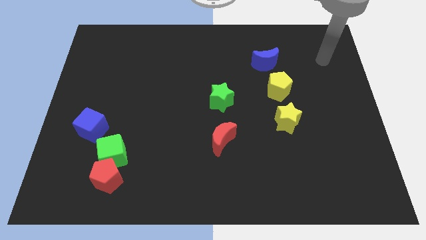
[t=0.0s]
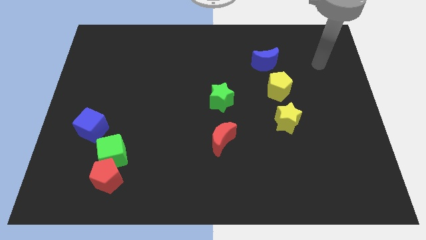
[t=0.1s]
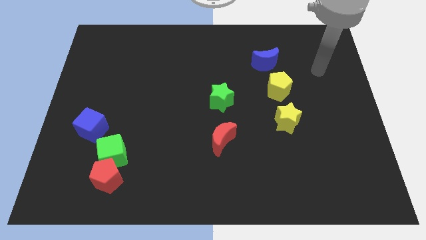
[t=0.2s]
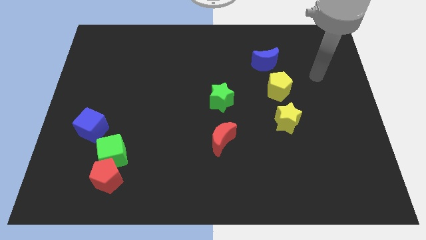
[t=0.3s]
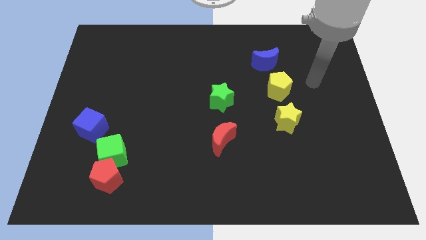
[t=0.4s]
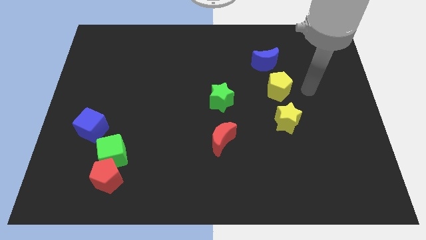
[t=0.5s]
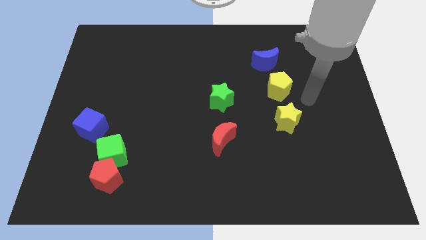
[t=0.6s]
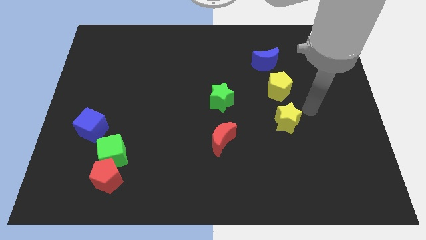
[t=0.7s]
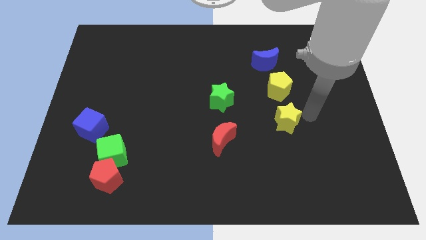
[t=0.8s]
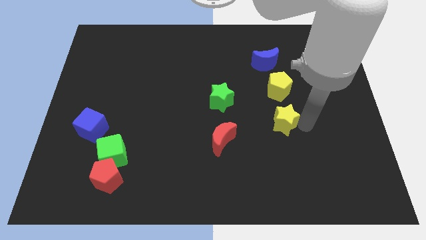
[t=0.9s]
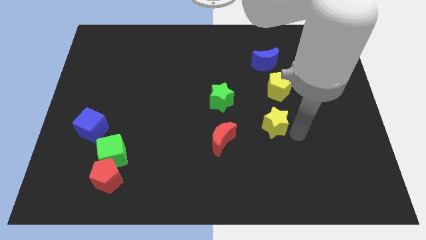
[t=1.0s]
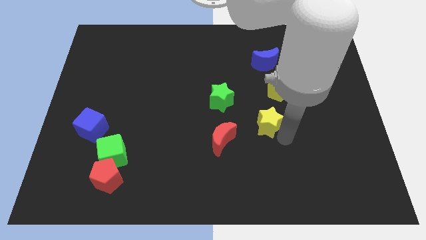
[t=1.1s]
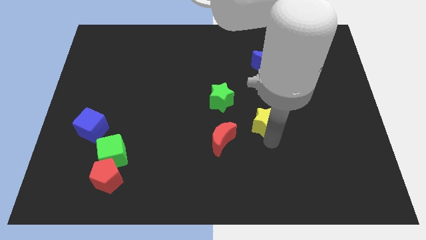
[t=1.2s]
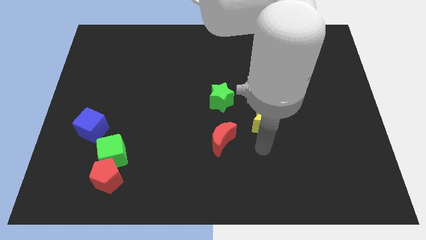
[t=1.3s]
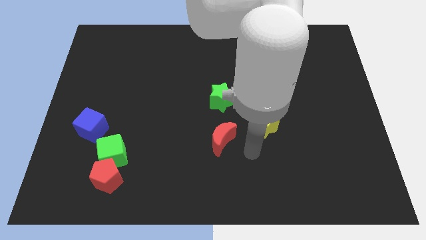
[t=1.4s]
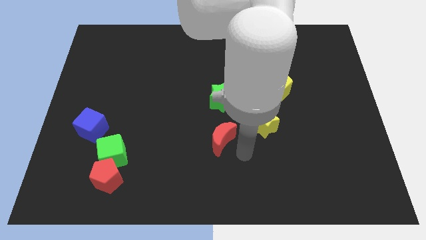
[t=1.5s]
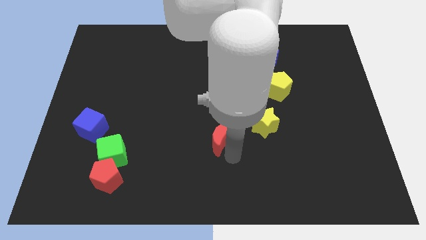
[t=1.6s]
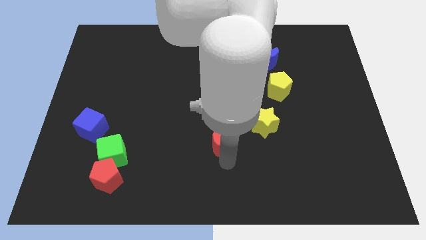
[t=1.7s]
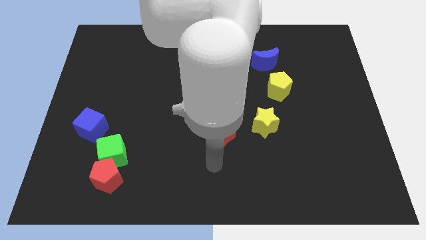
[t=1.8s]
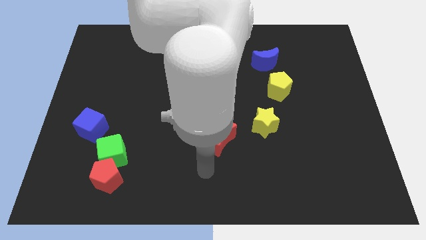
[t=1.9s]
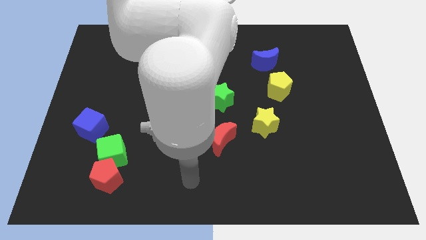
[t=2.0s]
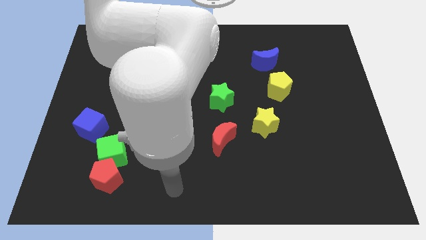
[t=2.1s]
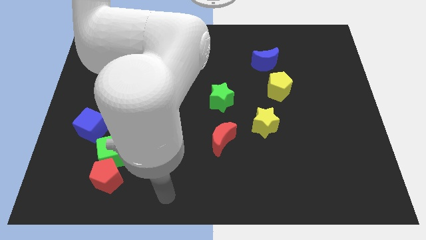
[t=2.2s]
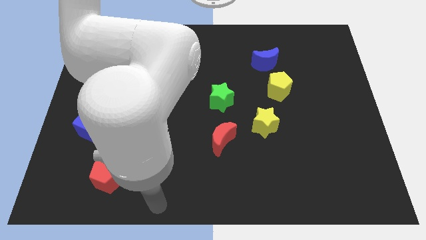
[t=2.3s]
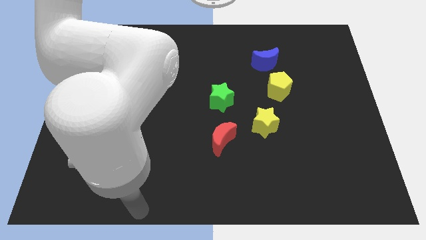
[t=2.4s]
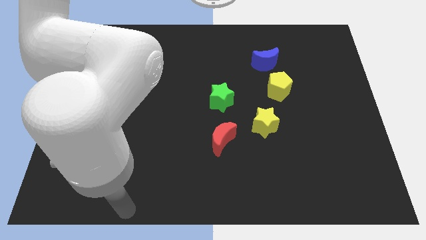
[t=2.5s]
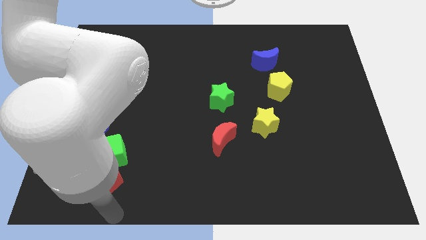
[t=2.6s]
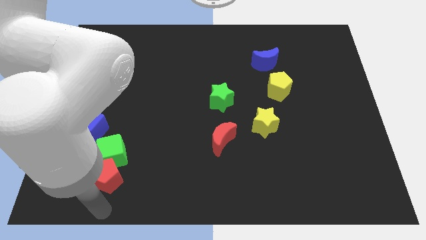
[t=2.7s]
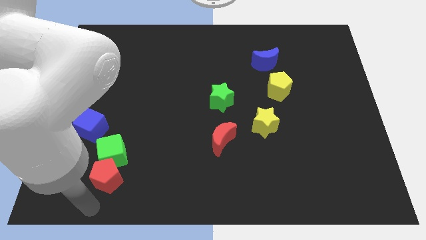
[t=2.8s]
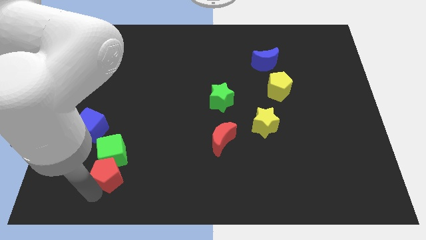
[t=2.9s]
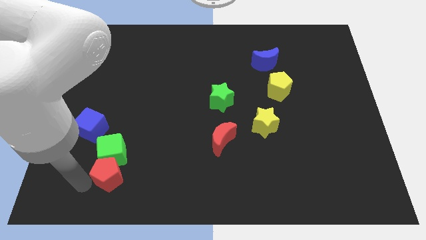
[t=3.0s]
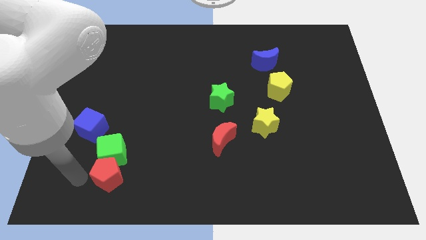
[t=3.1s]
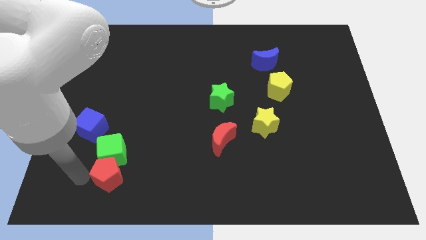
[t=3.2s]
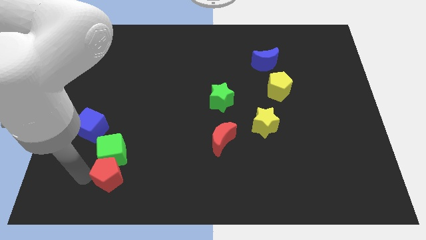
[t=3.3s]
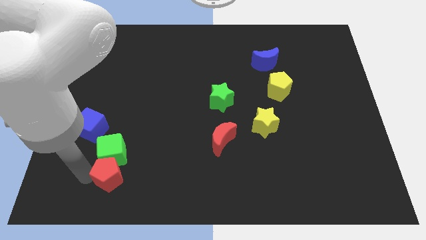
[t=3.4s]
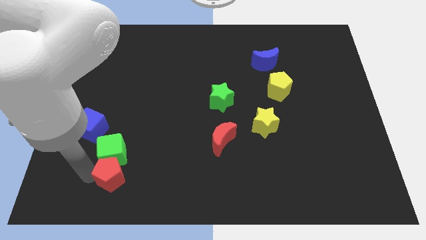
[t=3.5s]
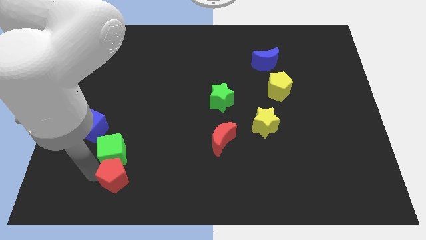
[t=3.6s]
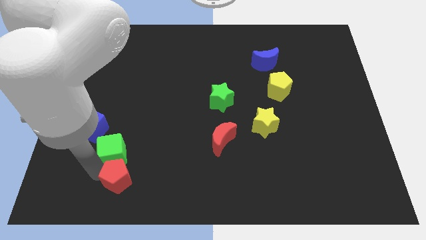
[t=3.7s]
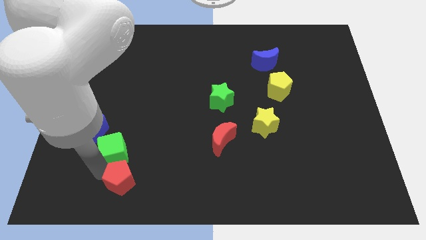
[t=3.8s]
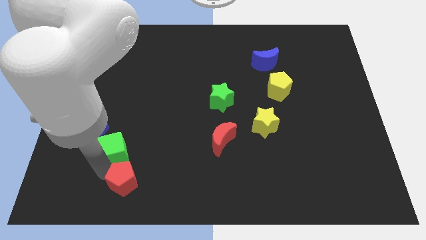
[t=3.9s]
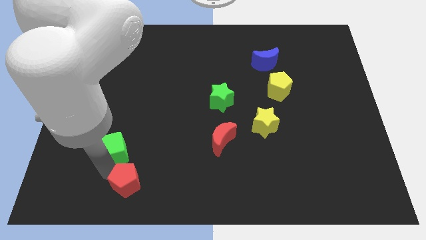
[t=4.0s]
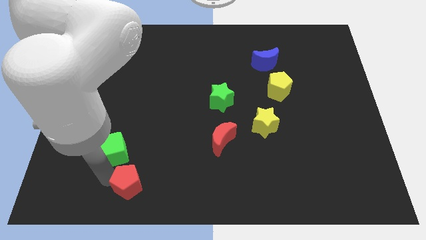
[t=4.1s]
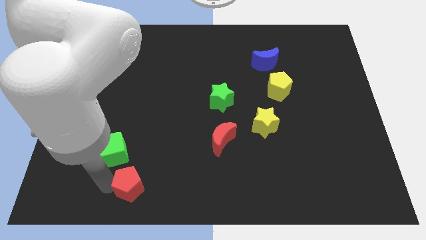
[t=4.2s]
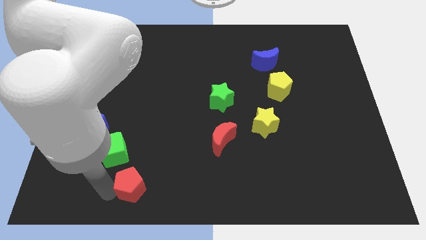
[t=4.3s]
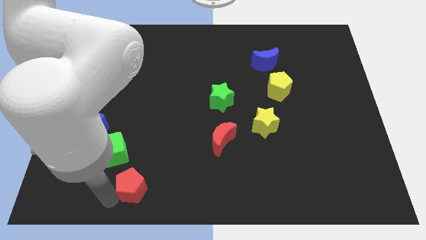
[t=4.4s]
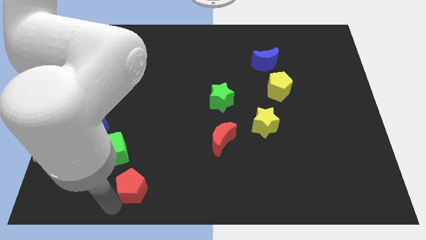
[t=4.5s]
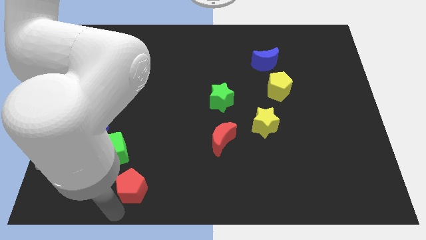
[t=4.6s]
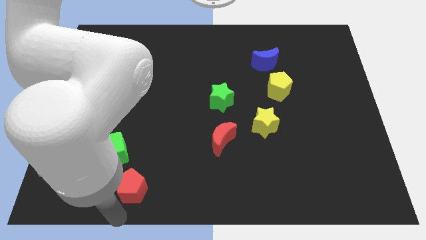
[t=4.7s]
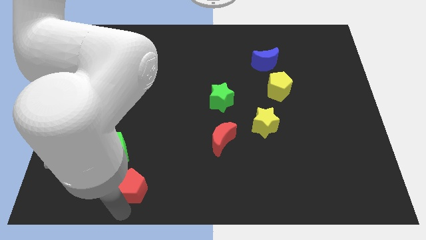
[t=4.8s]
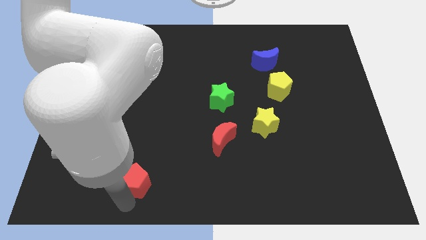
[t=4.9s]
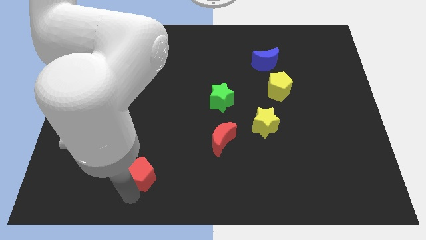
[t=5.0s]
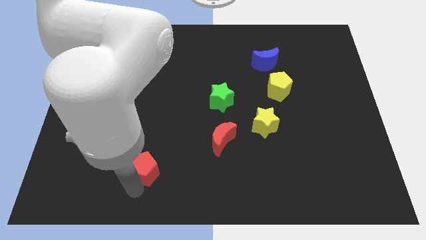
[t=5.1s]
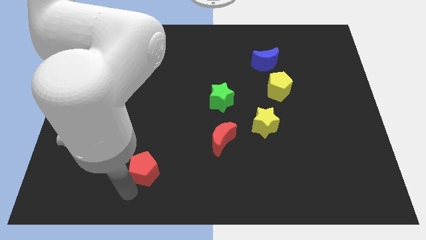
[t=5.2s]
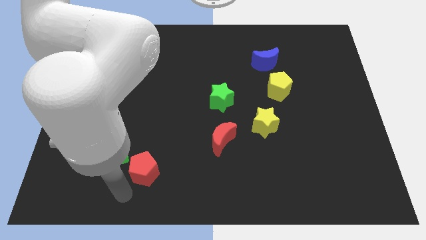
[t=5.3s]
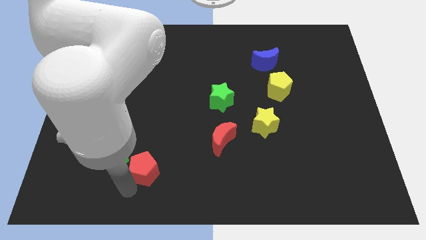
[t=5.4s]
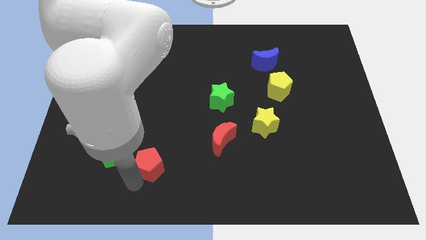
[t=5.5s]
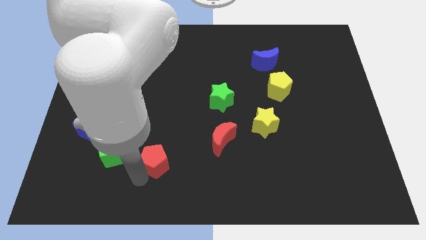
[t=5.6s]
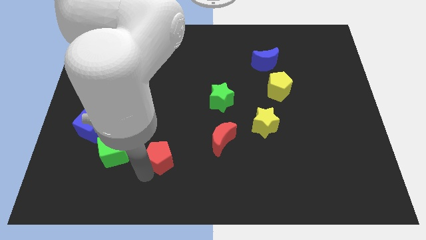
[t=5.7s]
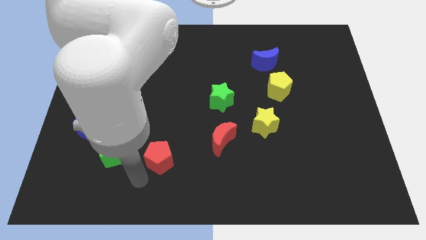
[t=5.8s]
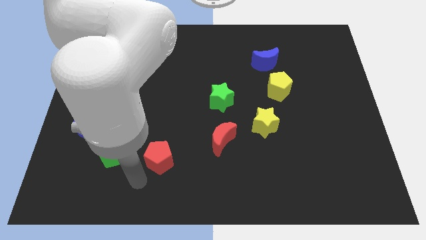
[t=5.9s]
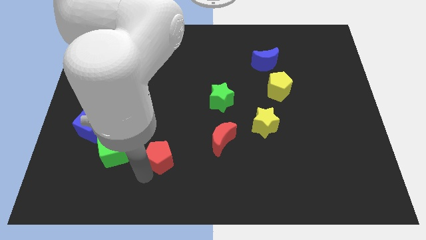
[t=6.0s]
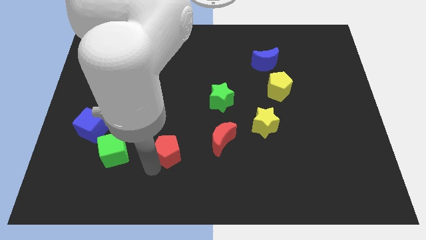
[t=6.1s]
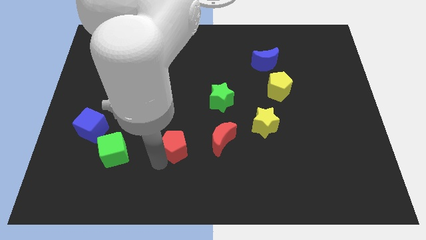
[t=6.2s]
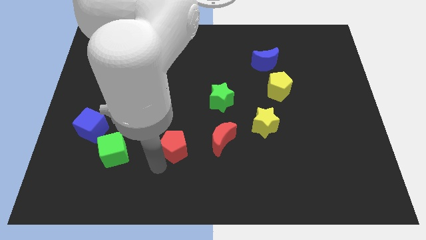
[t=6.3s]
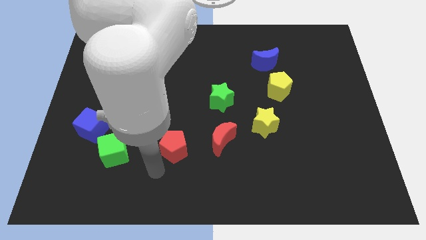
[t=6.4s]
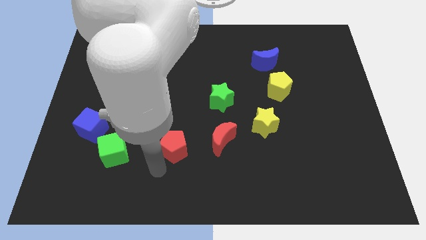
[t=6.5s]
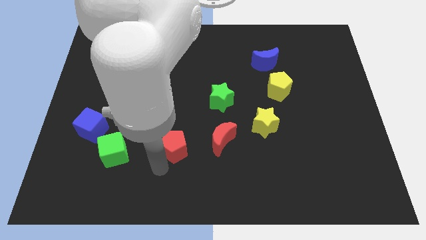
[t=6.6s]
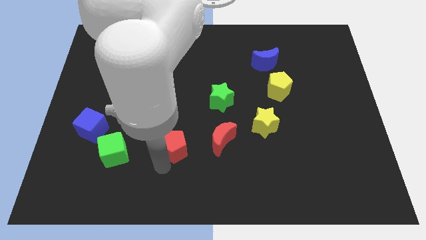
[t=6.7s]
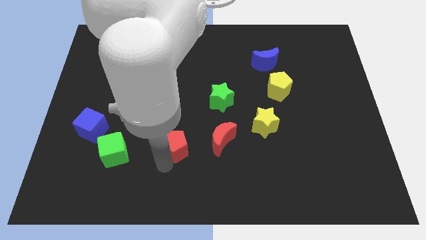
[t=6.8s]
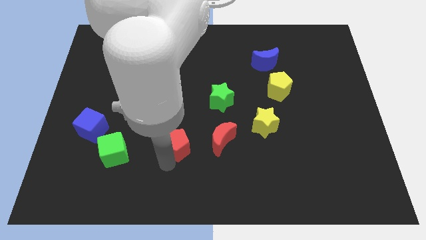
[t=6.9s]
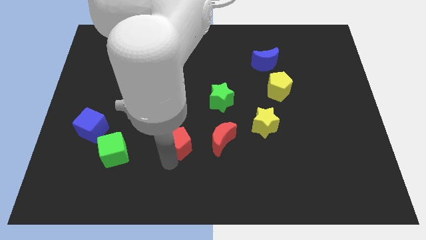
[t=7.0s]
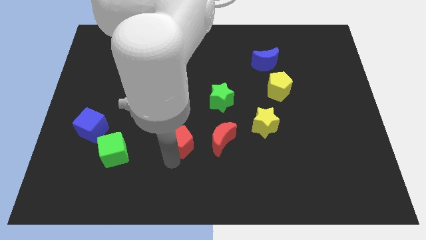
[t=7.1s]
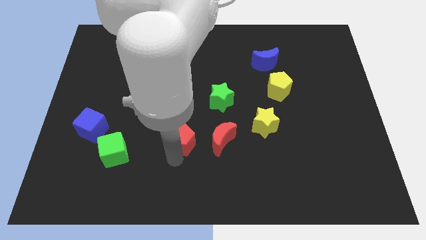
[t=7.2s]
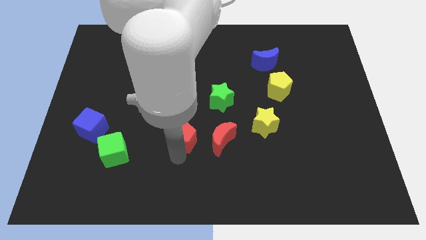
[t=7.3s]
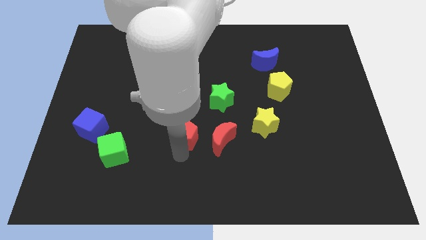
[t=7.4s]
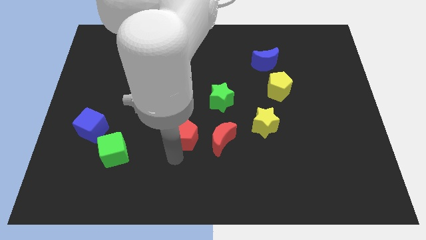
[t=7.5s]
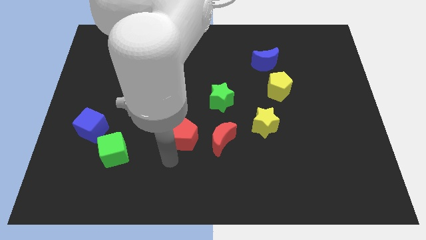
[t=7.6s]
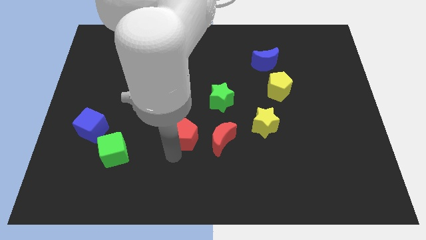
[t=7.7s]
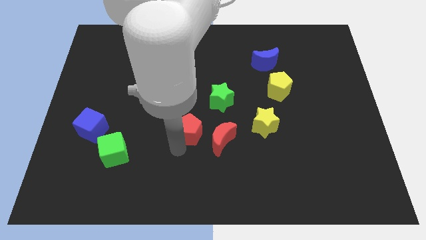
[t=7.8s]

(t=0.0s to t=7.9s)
slide the red pentagon to the top left of the red moon
